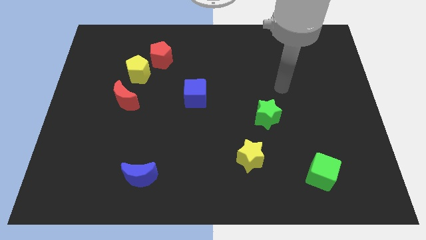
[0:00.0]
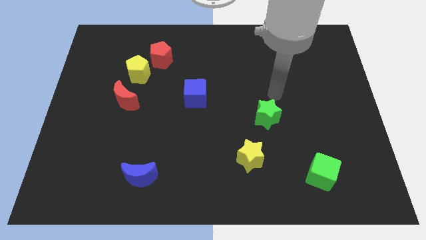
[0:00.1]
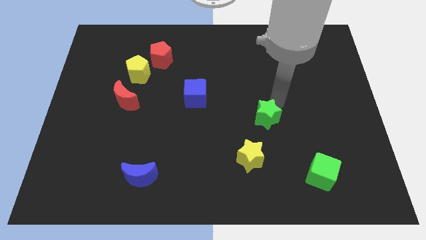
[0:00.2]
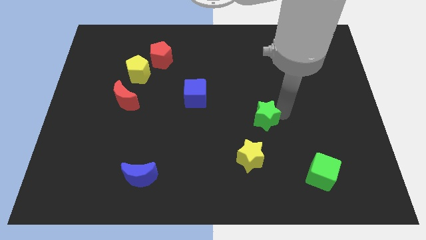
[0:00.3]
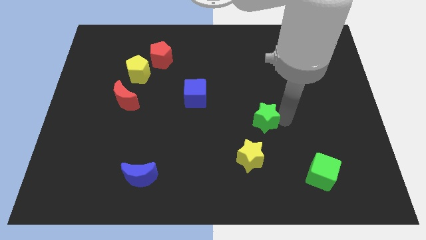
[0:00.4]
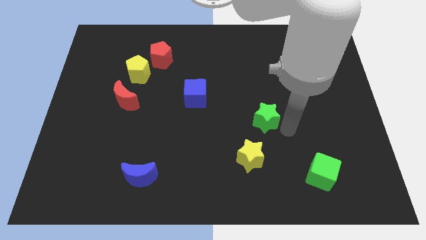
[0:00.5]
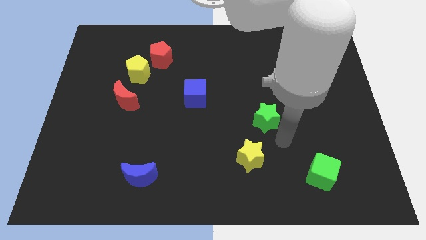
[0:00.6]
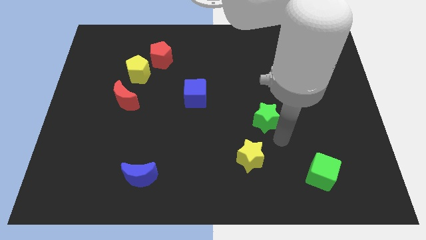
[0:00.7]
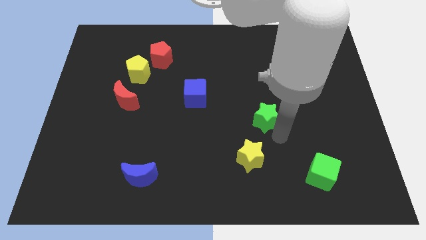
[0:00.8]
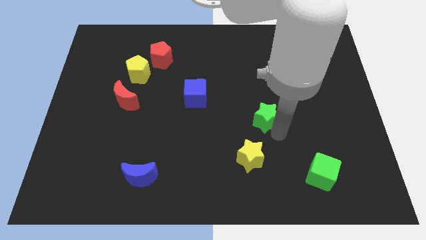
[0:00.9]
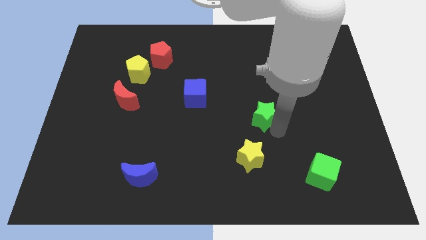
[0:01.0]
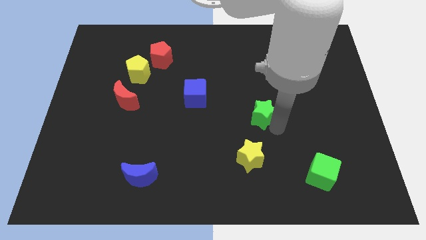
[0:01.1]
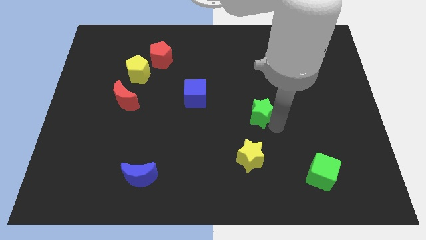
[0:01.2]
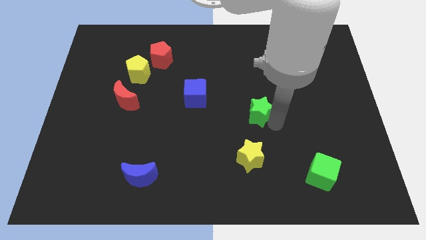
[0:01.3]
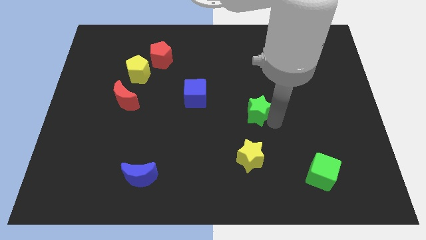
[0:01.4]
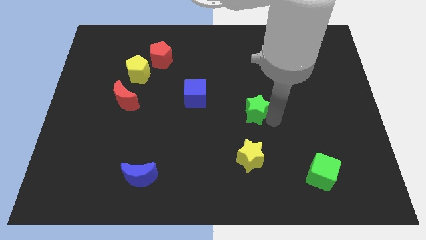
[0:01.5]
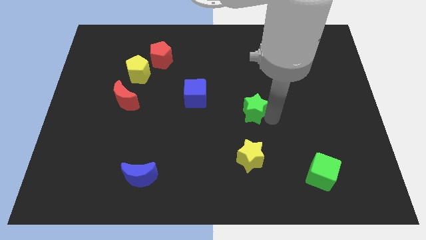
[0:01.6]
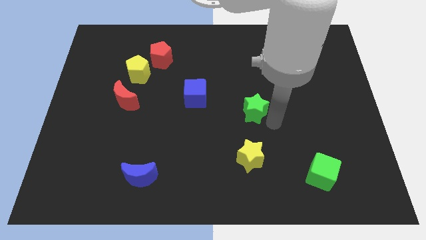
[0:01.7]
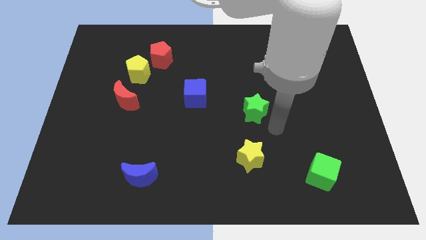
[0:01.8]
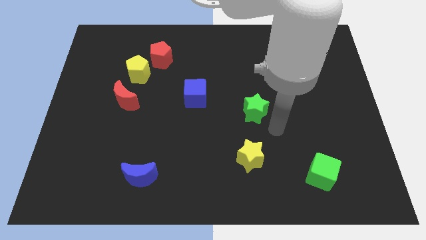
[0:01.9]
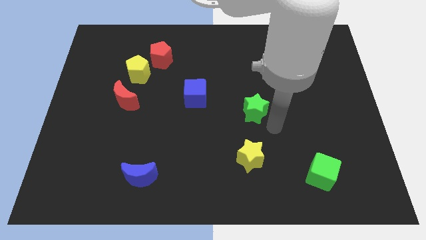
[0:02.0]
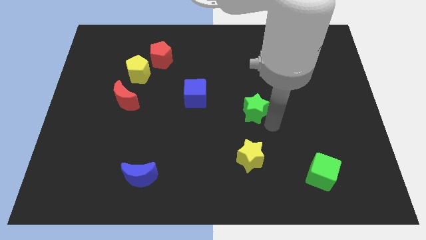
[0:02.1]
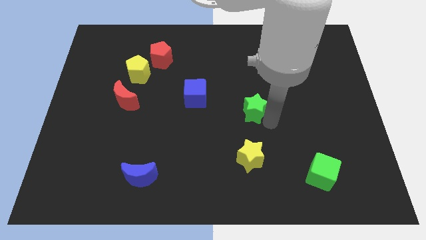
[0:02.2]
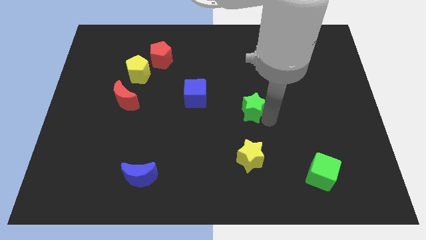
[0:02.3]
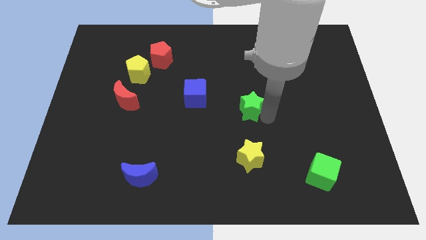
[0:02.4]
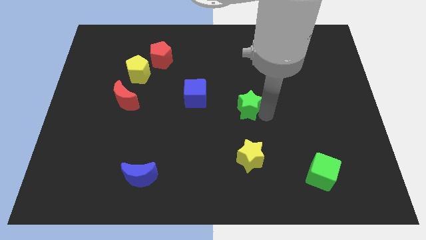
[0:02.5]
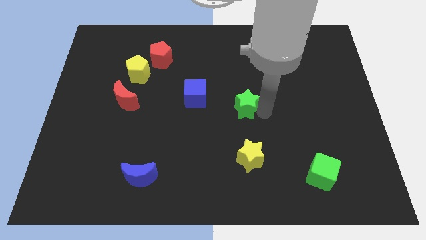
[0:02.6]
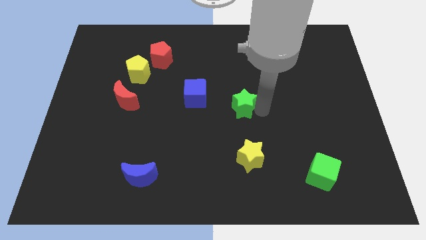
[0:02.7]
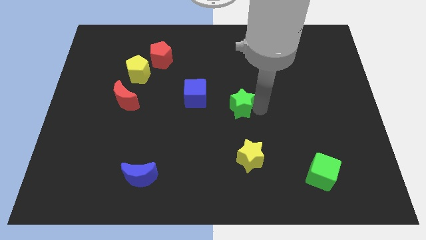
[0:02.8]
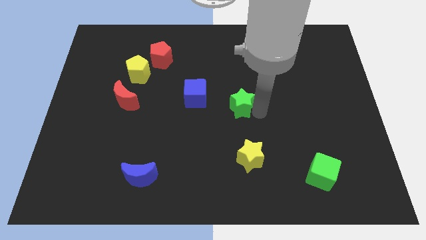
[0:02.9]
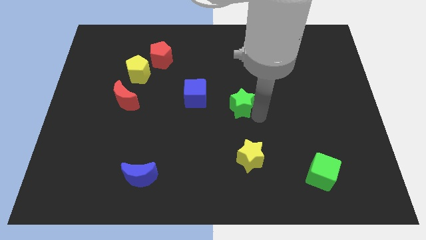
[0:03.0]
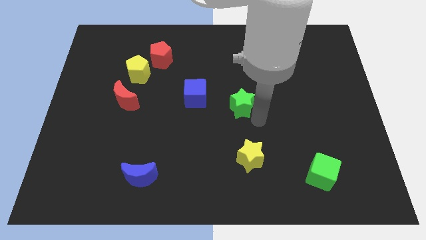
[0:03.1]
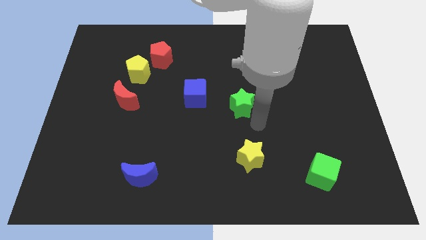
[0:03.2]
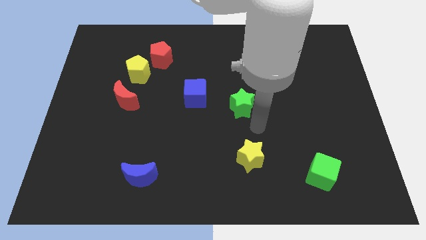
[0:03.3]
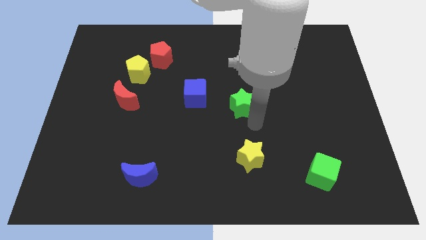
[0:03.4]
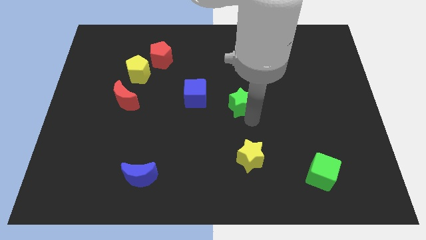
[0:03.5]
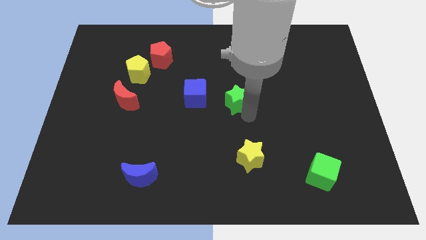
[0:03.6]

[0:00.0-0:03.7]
slightly push the green star up and then left

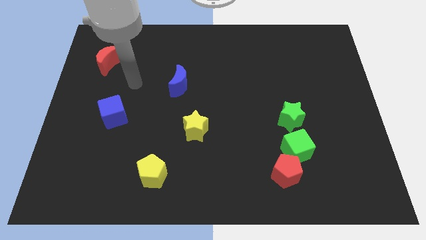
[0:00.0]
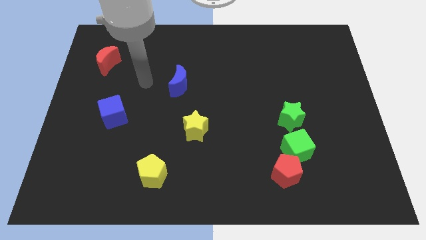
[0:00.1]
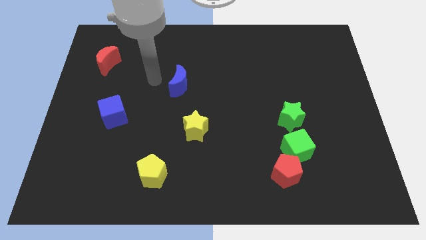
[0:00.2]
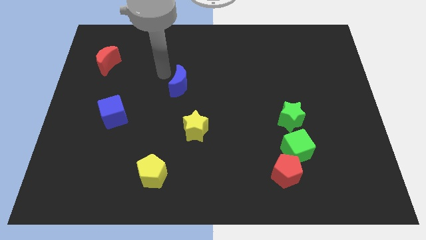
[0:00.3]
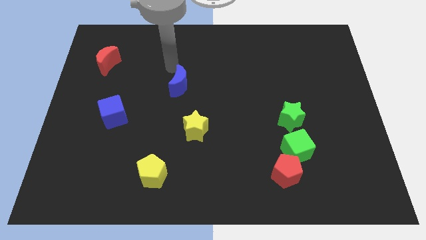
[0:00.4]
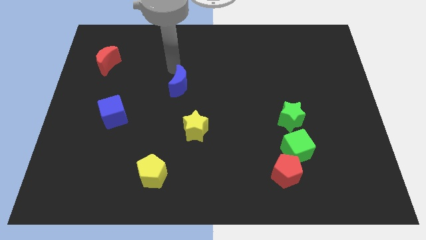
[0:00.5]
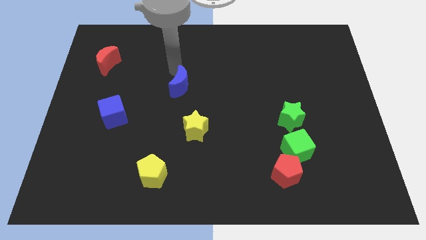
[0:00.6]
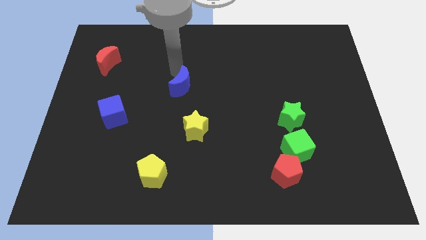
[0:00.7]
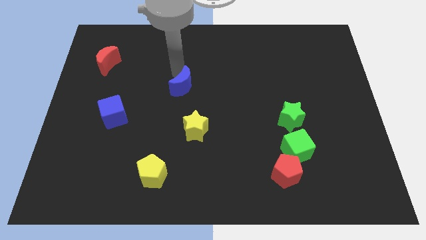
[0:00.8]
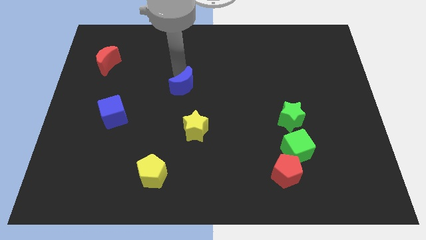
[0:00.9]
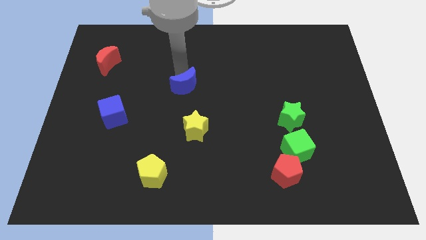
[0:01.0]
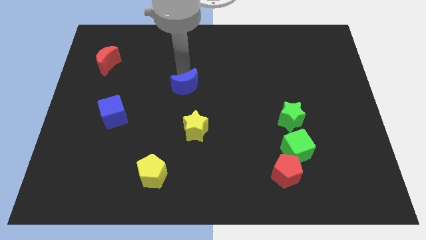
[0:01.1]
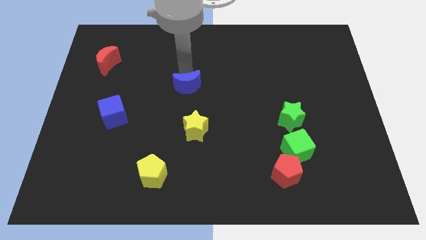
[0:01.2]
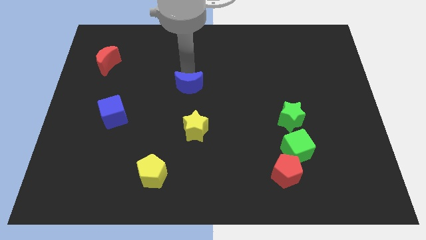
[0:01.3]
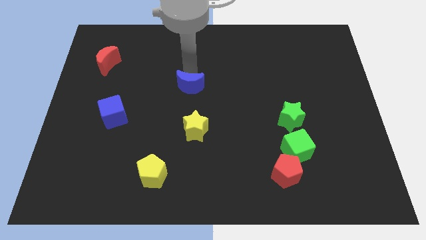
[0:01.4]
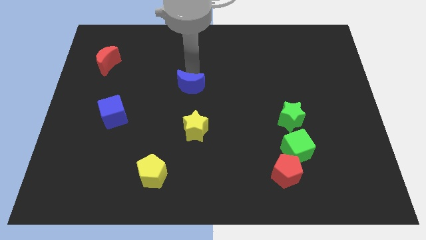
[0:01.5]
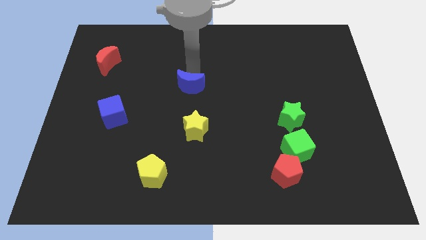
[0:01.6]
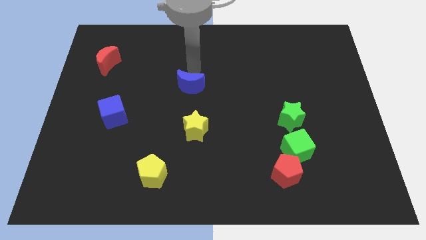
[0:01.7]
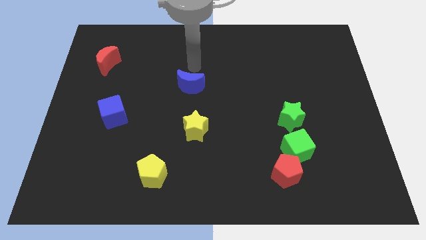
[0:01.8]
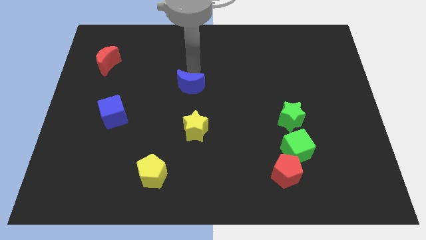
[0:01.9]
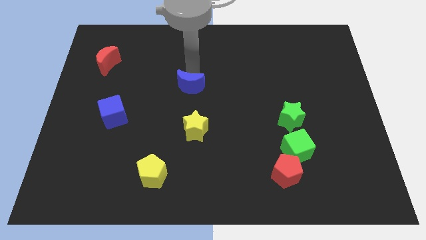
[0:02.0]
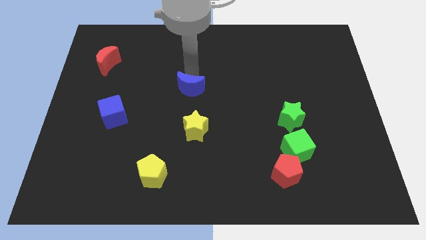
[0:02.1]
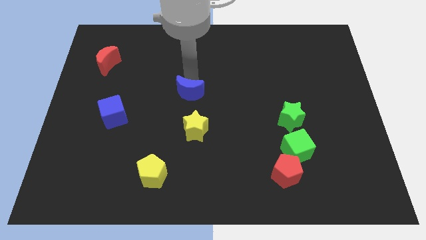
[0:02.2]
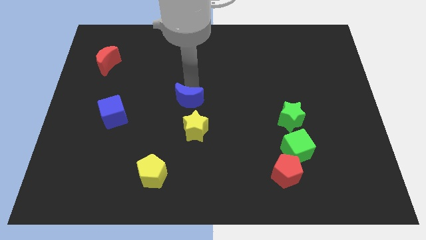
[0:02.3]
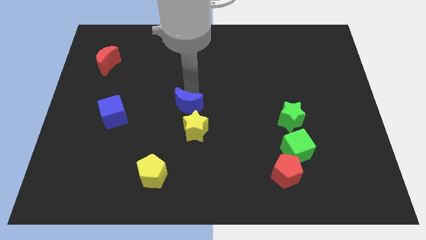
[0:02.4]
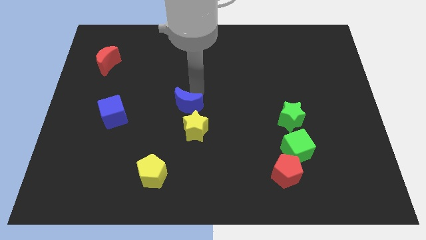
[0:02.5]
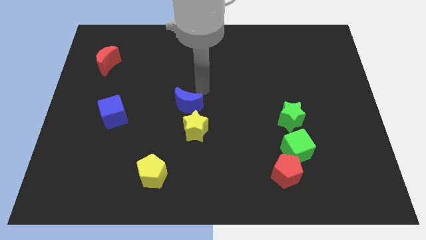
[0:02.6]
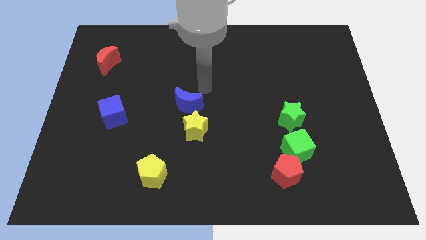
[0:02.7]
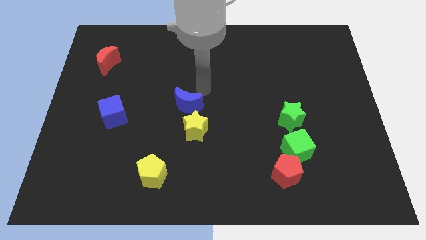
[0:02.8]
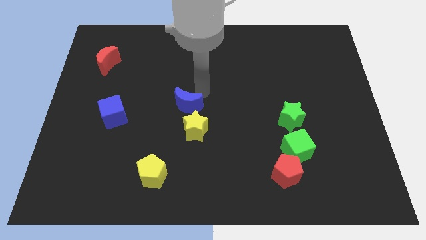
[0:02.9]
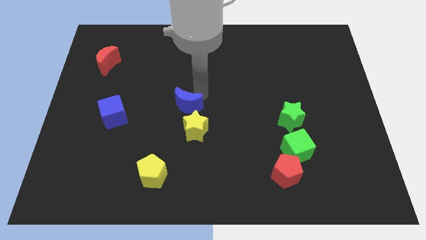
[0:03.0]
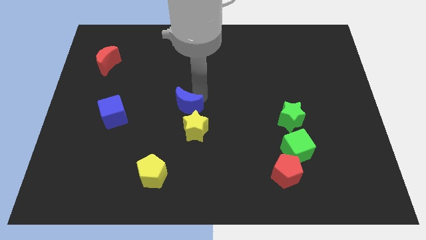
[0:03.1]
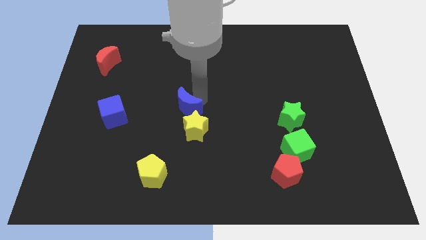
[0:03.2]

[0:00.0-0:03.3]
slide the blue moon downwards somewhat

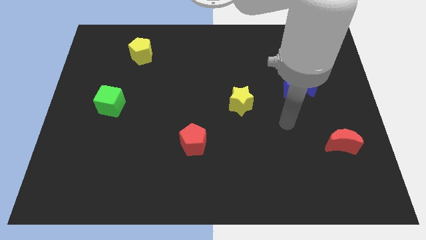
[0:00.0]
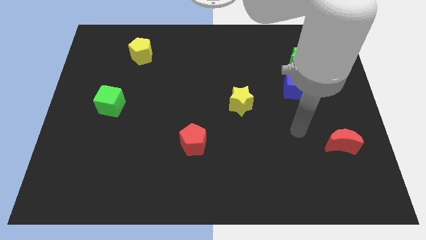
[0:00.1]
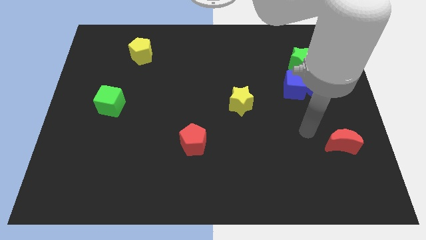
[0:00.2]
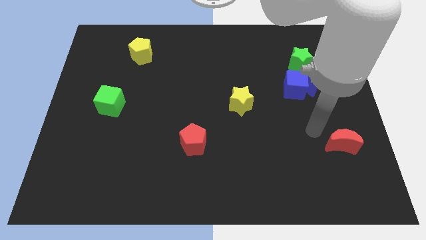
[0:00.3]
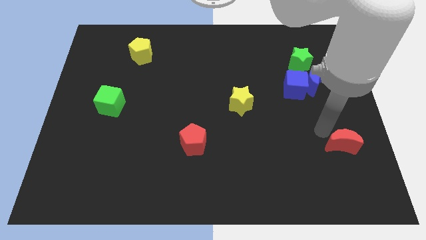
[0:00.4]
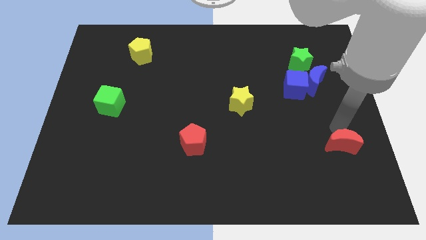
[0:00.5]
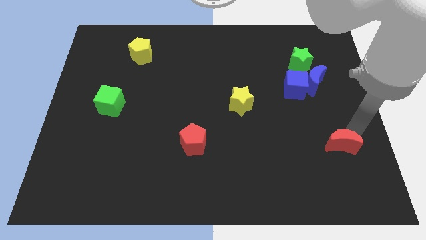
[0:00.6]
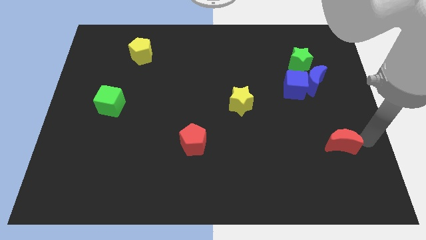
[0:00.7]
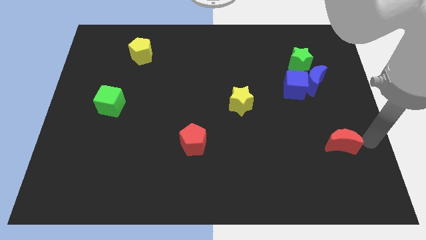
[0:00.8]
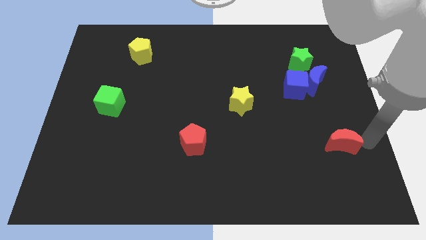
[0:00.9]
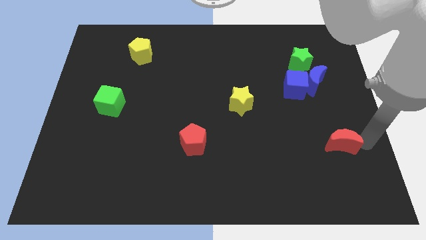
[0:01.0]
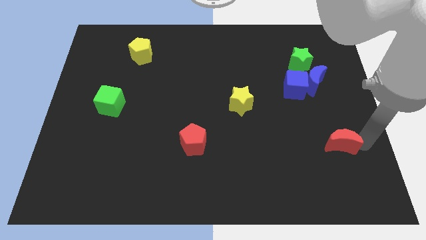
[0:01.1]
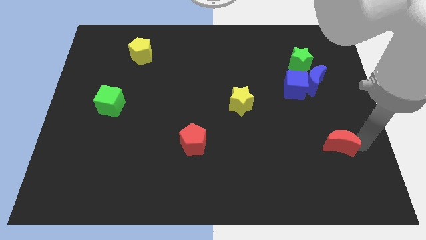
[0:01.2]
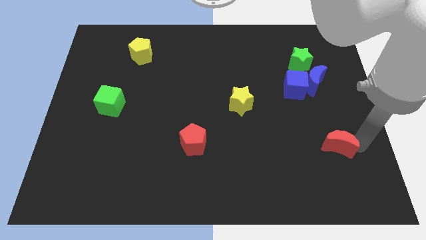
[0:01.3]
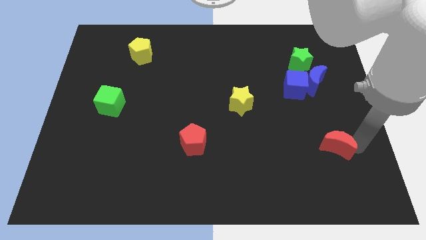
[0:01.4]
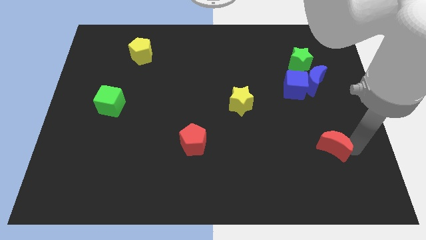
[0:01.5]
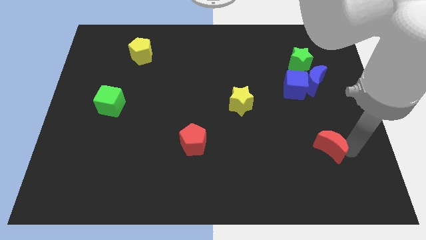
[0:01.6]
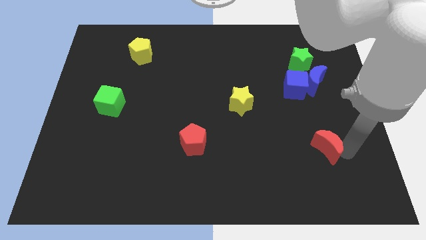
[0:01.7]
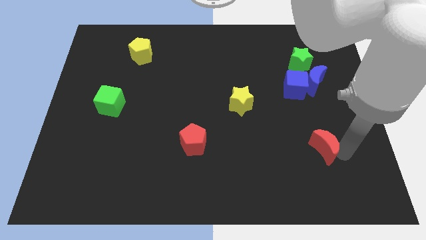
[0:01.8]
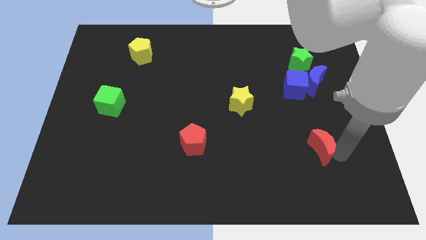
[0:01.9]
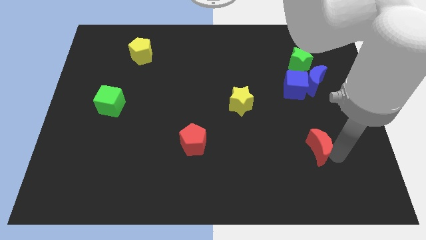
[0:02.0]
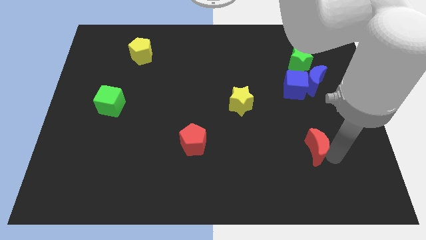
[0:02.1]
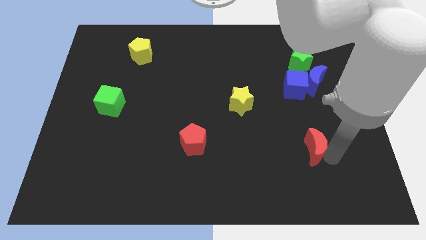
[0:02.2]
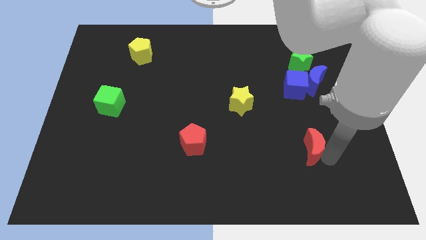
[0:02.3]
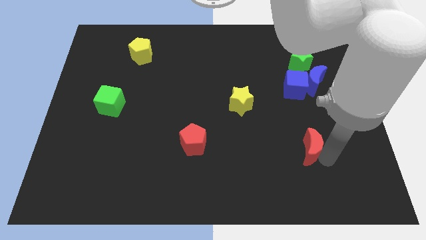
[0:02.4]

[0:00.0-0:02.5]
move the red moon a little bit left
